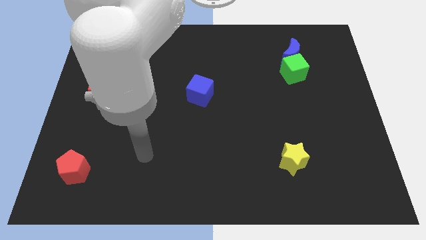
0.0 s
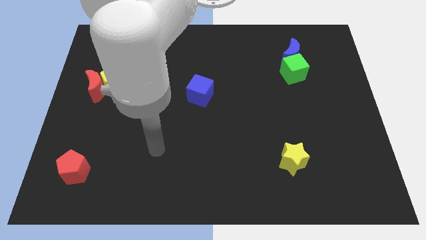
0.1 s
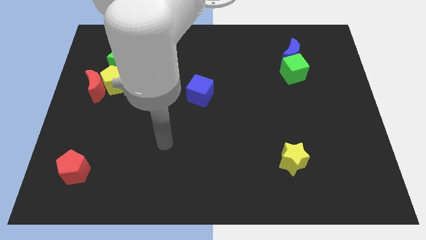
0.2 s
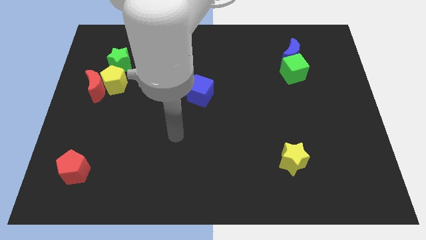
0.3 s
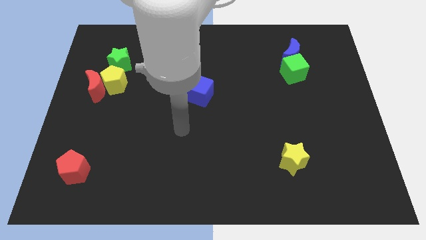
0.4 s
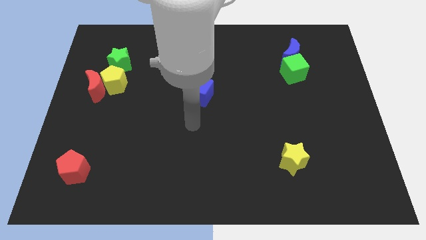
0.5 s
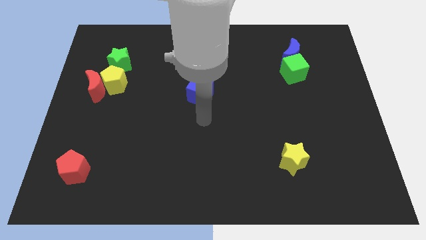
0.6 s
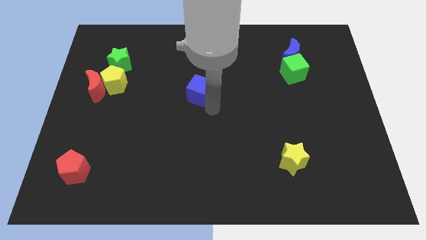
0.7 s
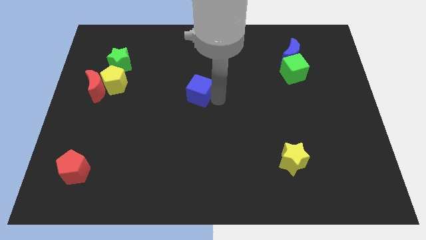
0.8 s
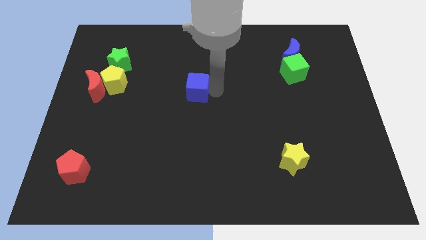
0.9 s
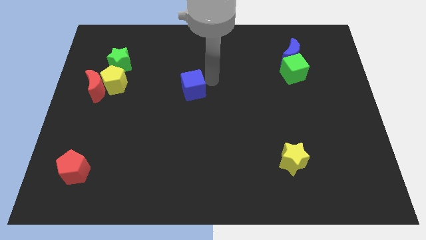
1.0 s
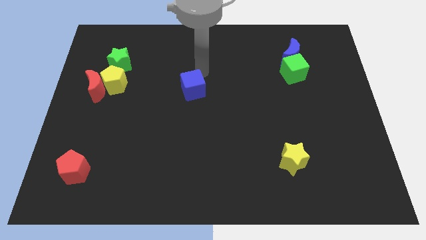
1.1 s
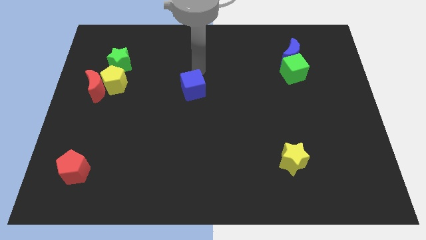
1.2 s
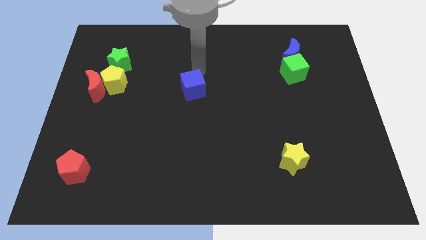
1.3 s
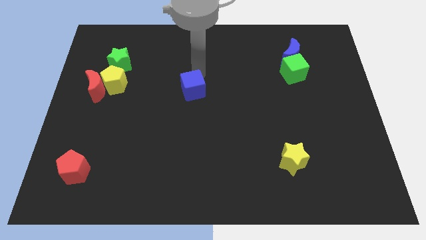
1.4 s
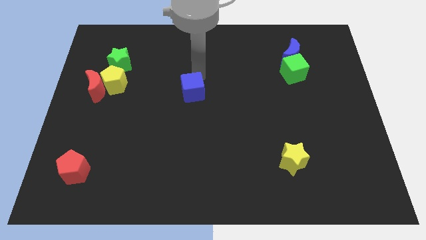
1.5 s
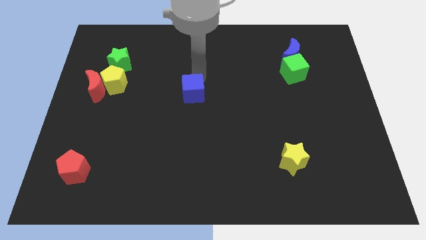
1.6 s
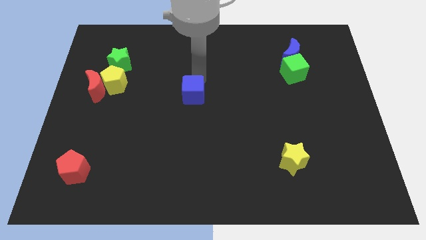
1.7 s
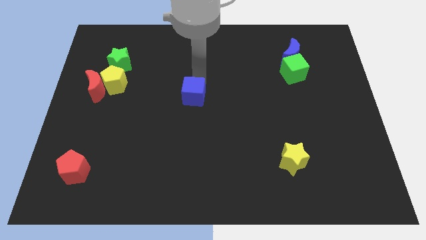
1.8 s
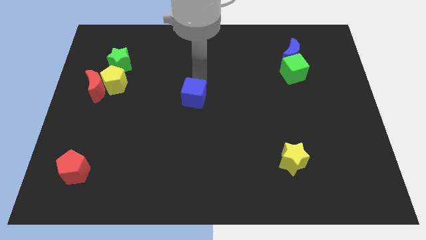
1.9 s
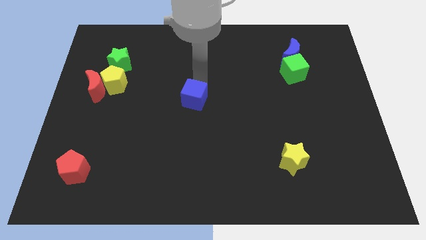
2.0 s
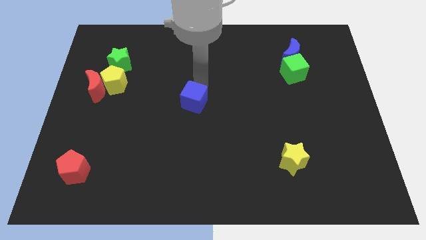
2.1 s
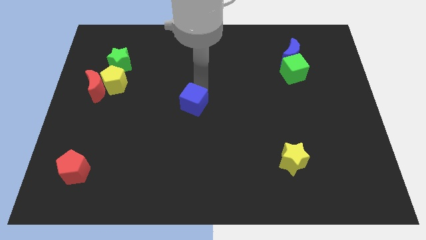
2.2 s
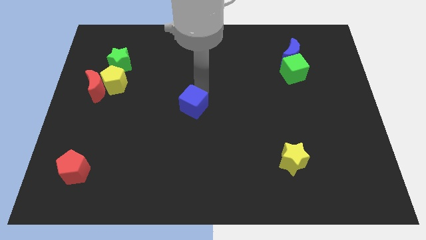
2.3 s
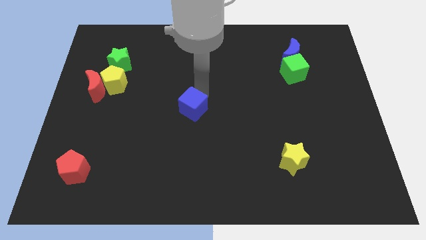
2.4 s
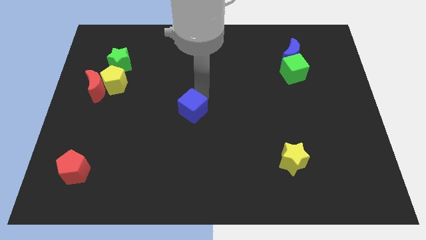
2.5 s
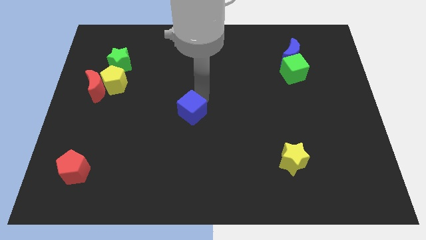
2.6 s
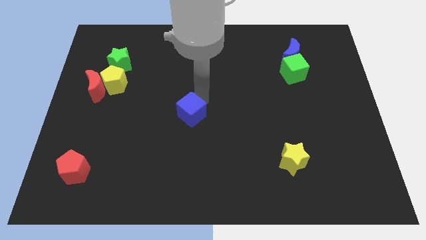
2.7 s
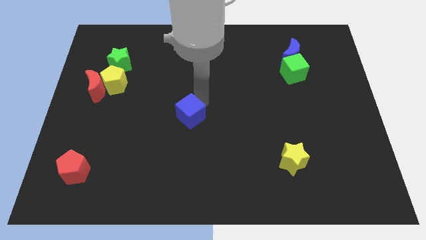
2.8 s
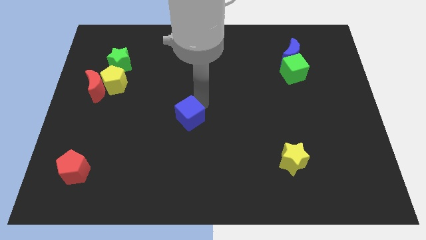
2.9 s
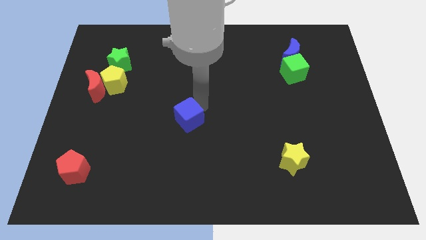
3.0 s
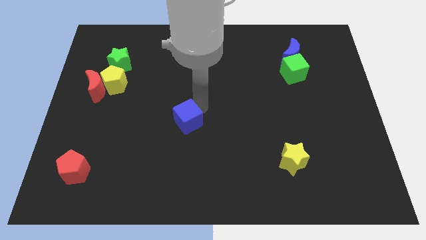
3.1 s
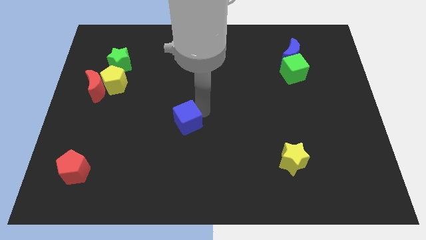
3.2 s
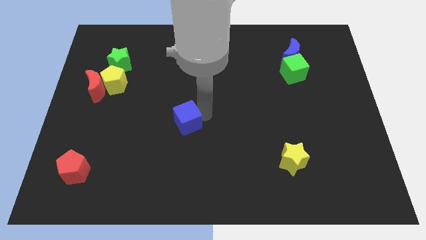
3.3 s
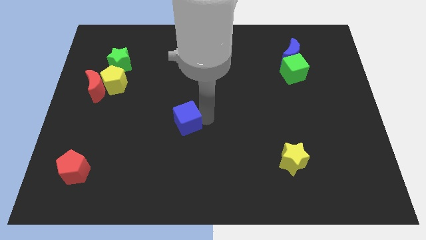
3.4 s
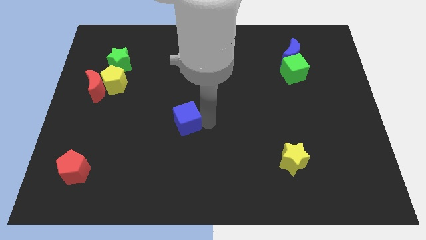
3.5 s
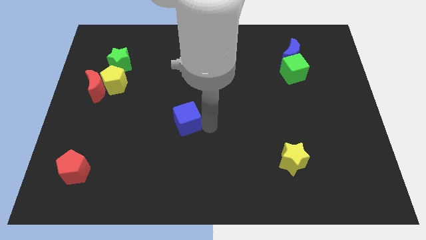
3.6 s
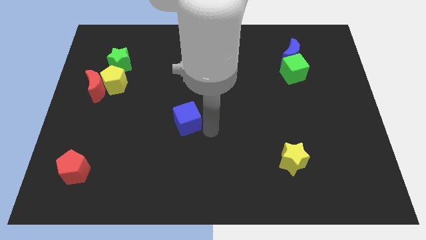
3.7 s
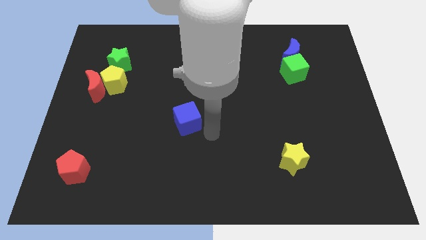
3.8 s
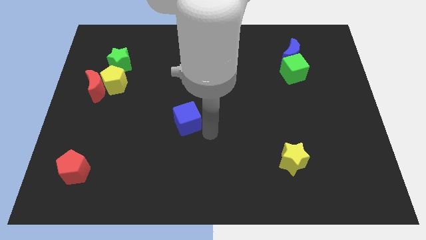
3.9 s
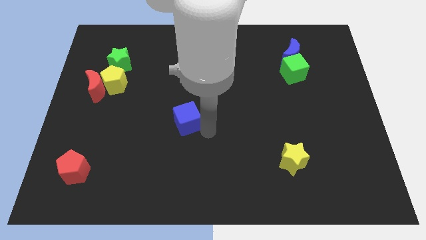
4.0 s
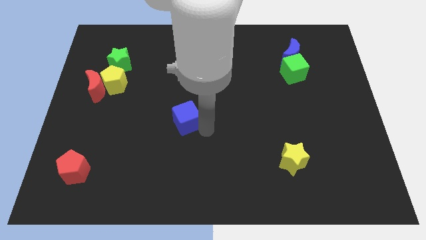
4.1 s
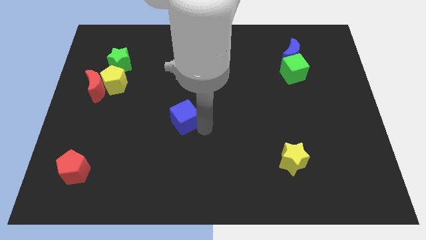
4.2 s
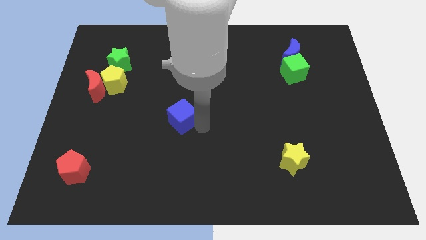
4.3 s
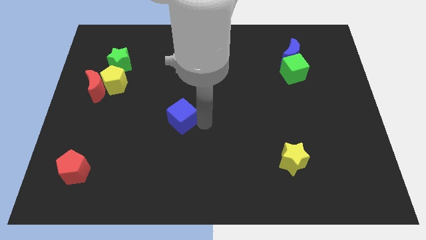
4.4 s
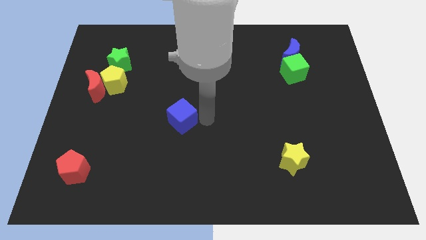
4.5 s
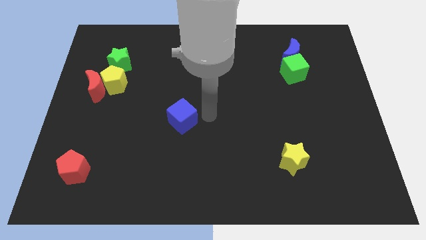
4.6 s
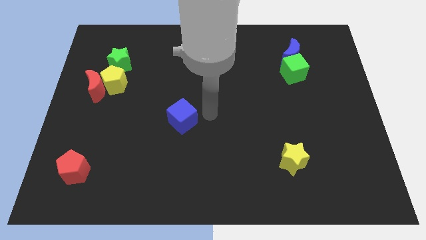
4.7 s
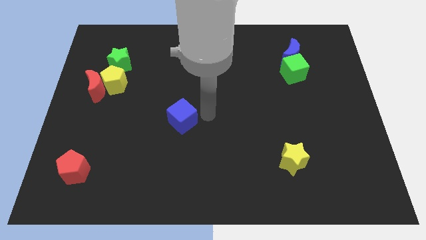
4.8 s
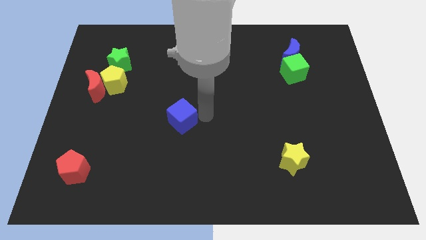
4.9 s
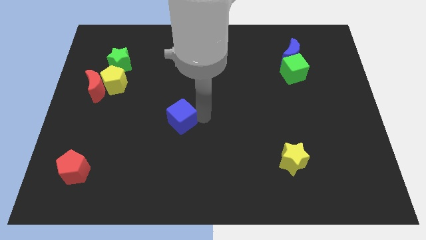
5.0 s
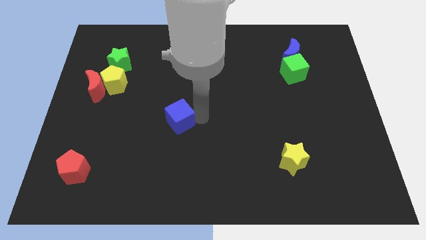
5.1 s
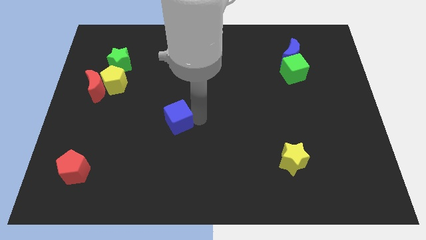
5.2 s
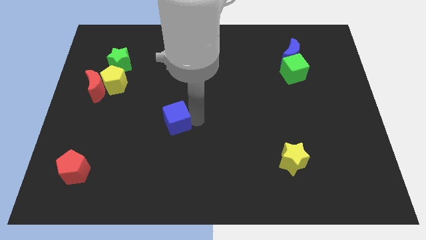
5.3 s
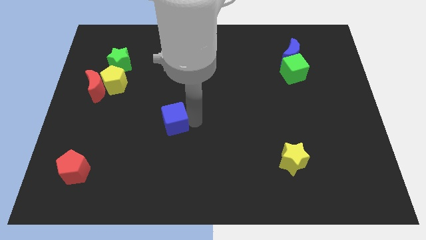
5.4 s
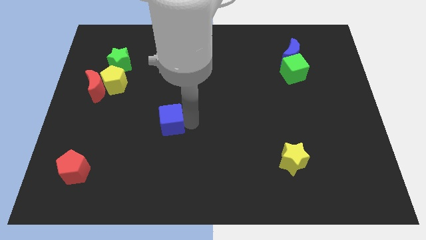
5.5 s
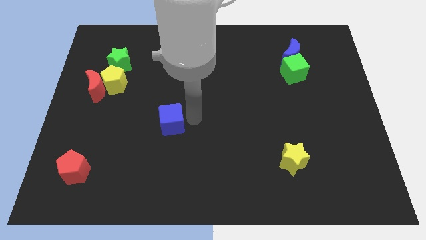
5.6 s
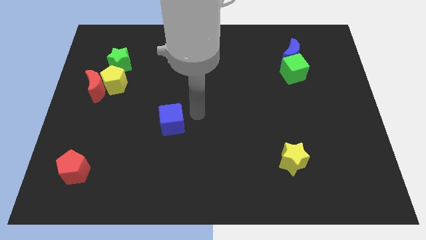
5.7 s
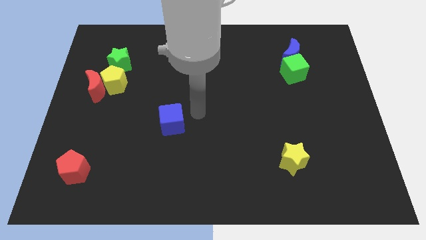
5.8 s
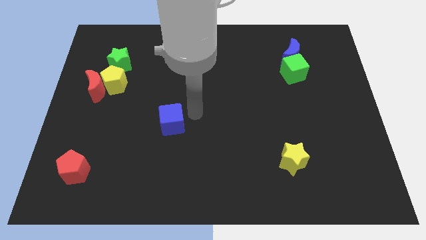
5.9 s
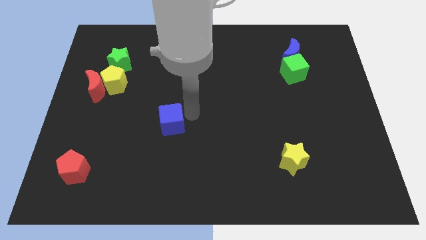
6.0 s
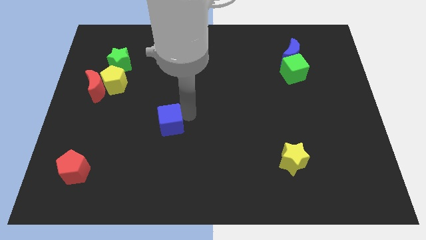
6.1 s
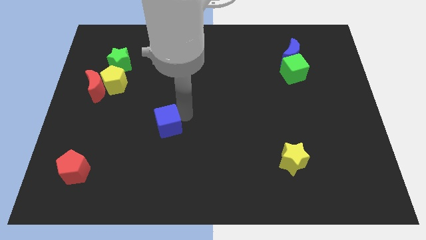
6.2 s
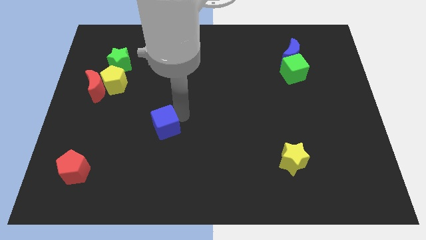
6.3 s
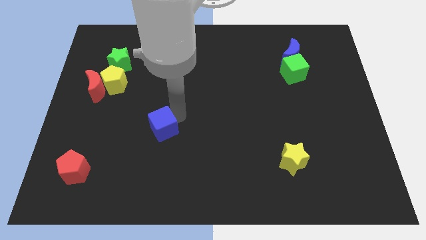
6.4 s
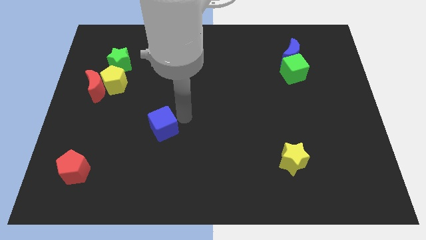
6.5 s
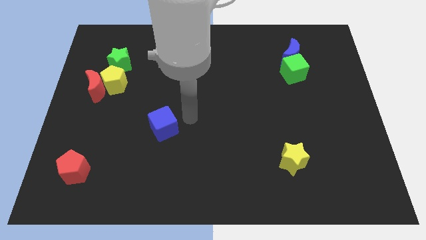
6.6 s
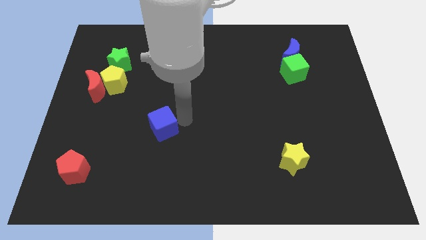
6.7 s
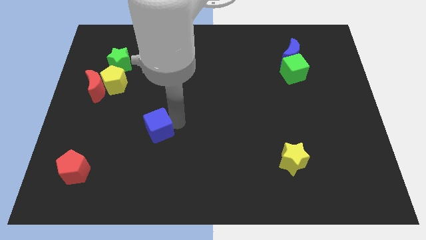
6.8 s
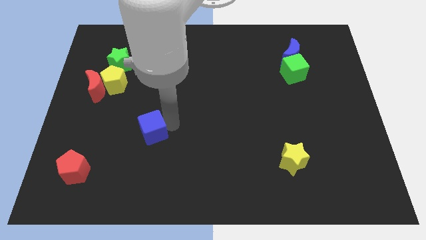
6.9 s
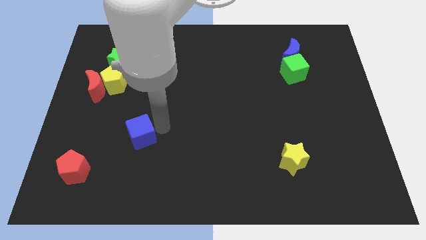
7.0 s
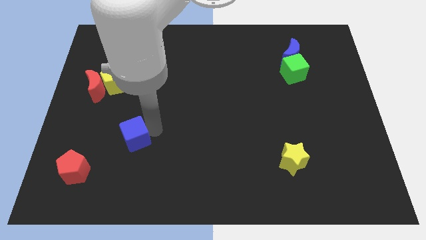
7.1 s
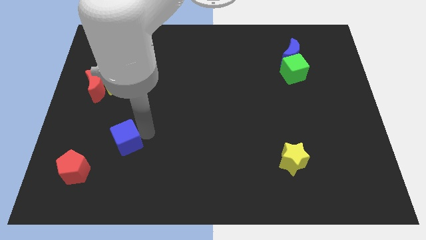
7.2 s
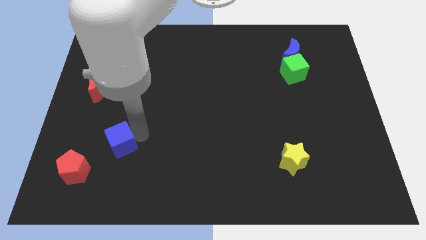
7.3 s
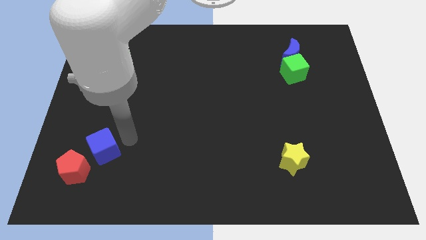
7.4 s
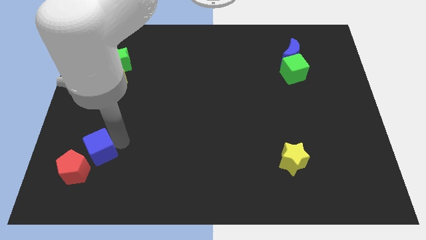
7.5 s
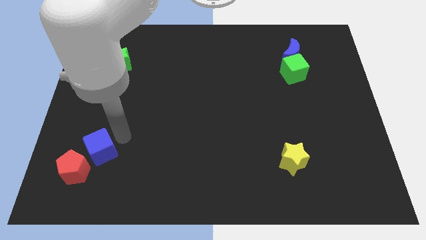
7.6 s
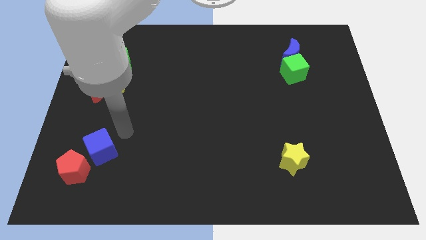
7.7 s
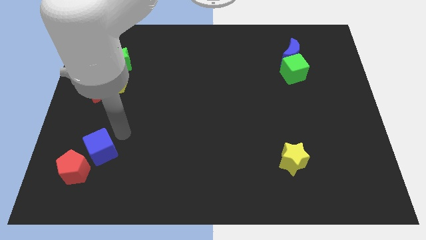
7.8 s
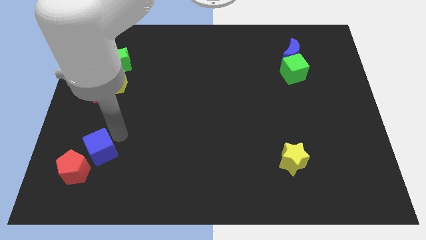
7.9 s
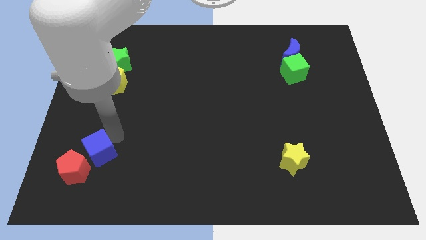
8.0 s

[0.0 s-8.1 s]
slide the blue cube next to the red pentagon
